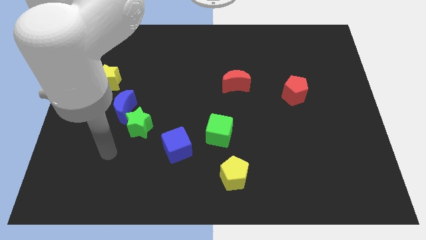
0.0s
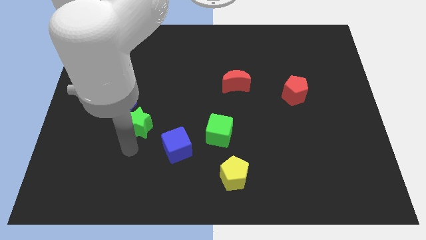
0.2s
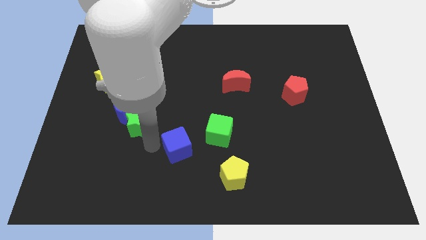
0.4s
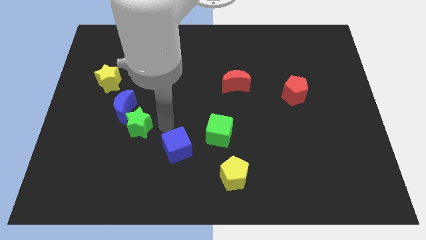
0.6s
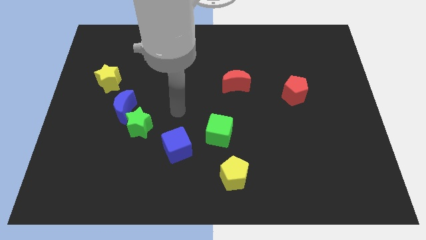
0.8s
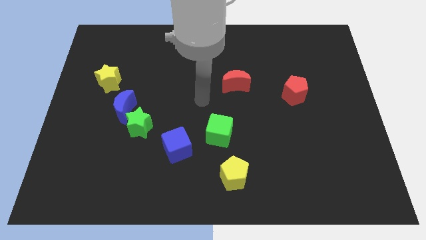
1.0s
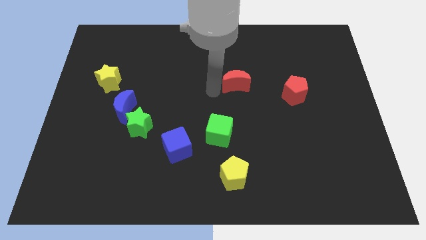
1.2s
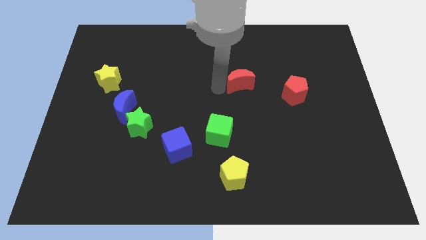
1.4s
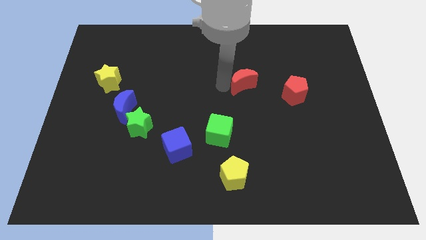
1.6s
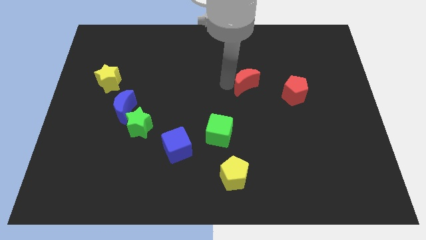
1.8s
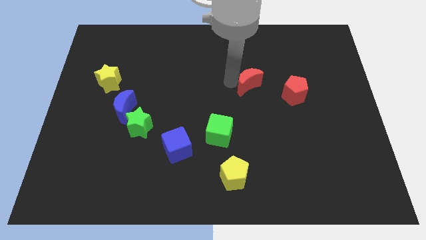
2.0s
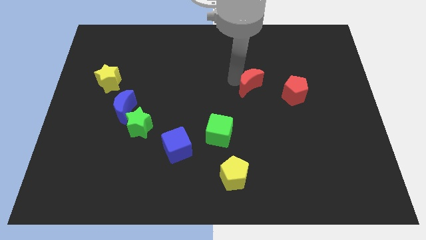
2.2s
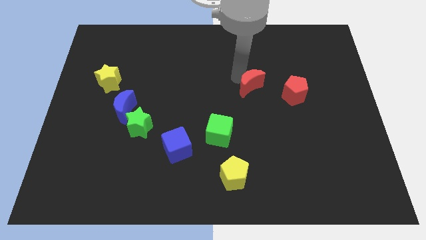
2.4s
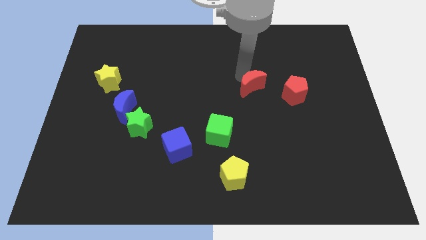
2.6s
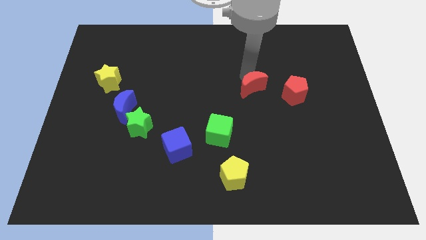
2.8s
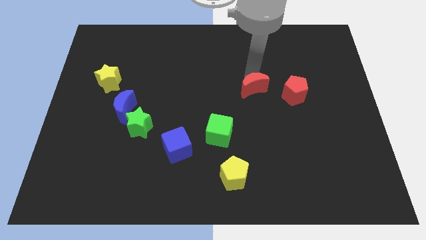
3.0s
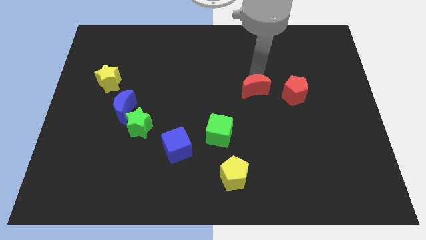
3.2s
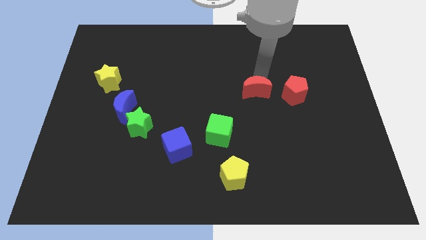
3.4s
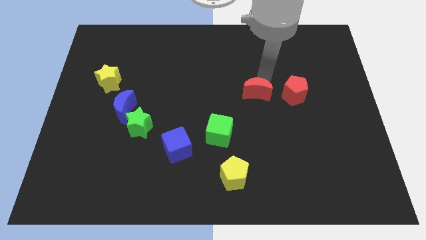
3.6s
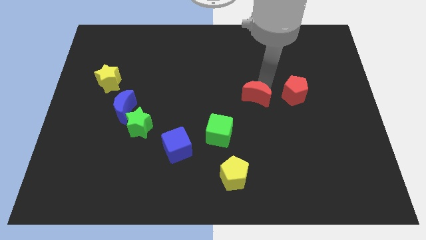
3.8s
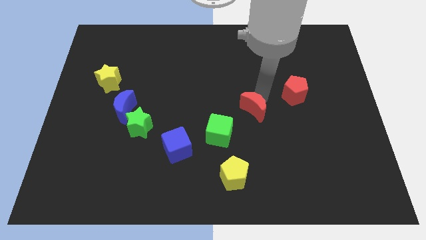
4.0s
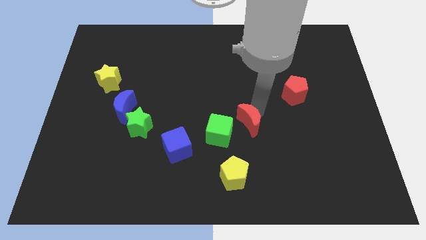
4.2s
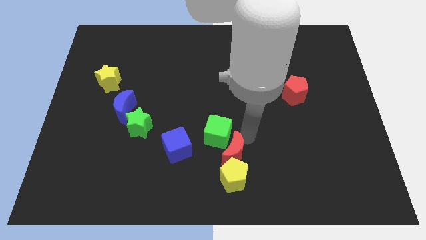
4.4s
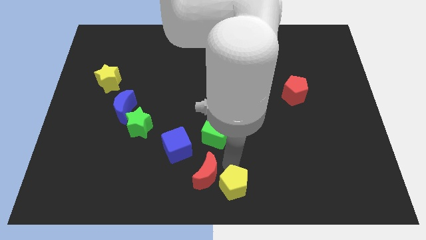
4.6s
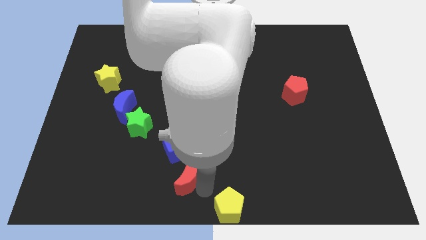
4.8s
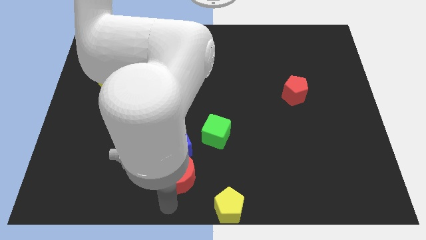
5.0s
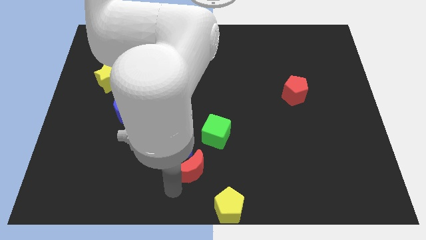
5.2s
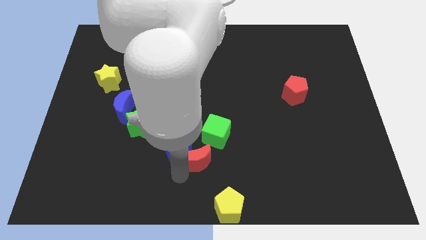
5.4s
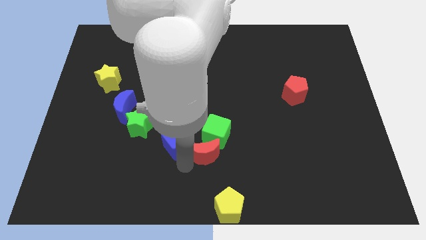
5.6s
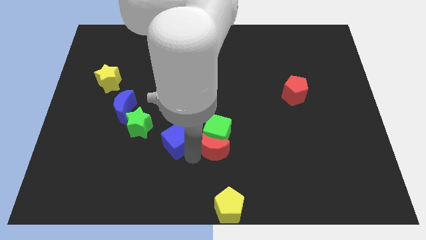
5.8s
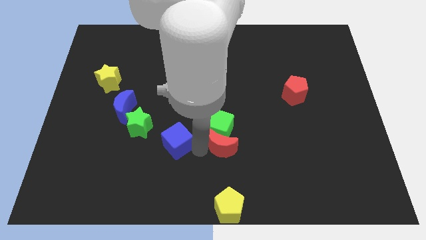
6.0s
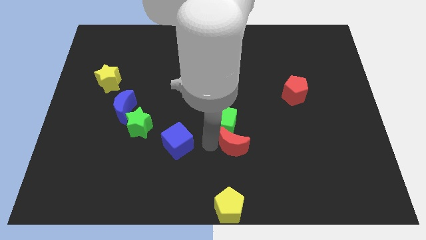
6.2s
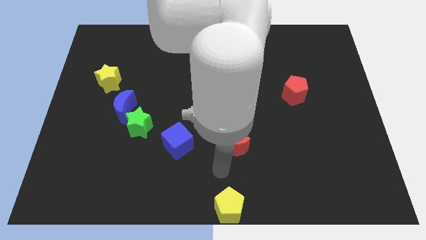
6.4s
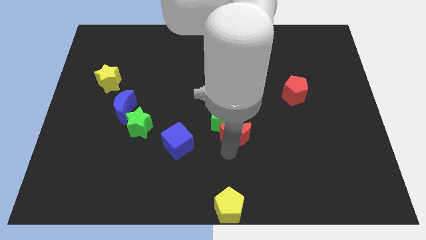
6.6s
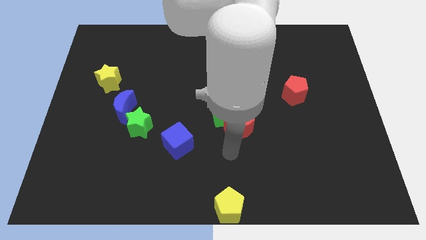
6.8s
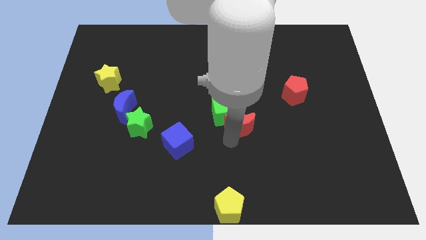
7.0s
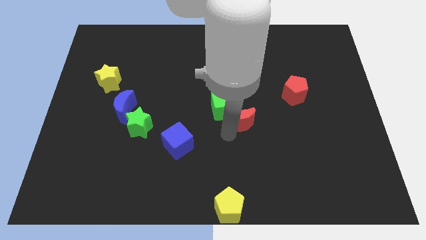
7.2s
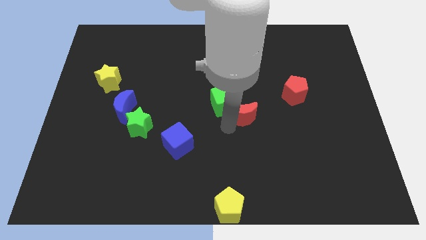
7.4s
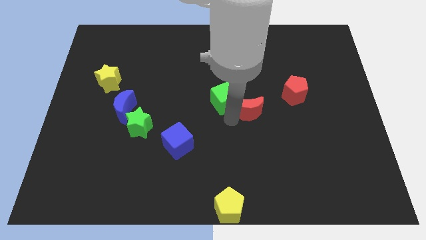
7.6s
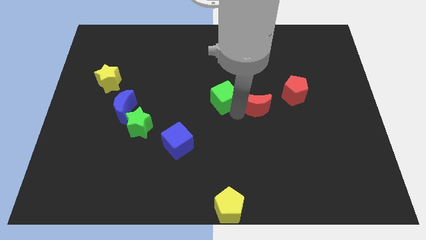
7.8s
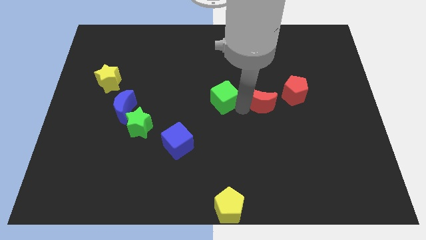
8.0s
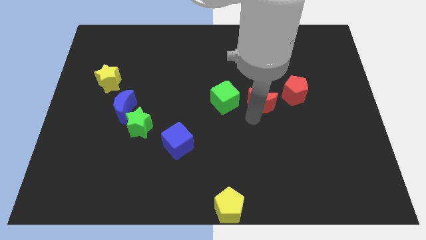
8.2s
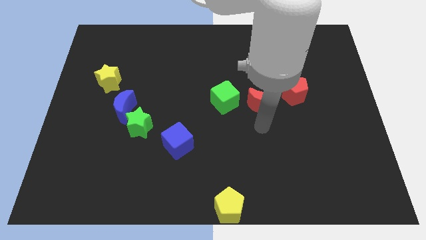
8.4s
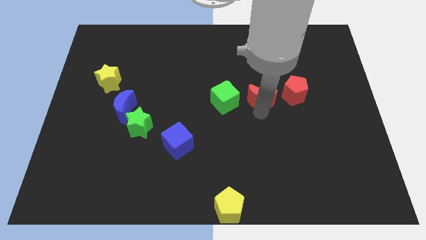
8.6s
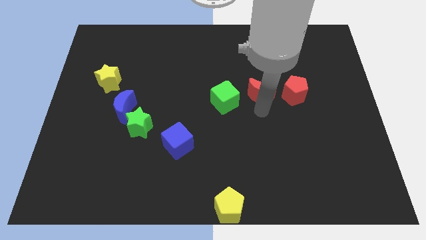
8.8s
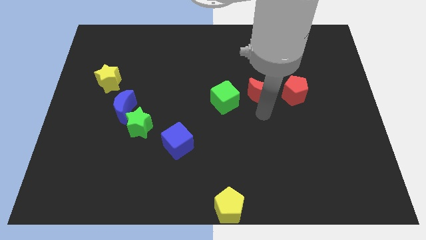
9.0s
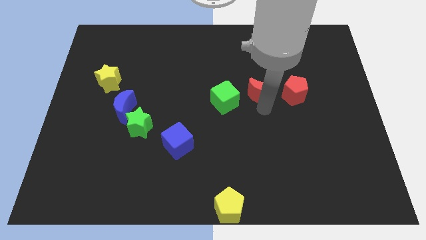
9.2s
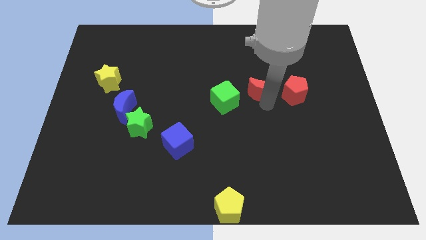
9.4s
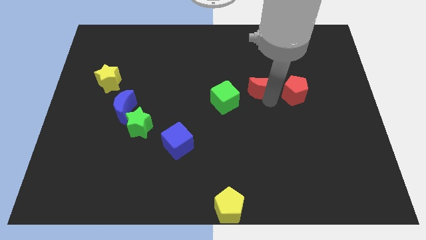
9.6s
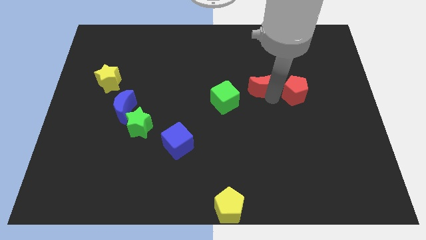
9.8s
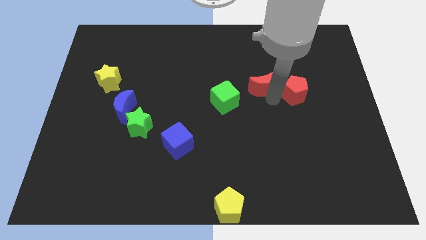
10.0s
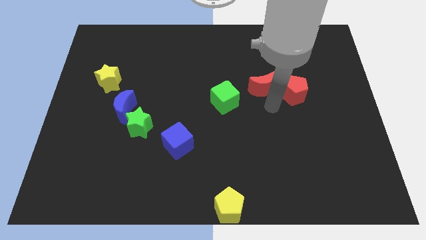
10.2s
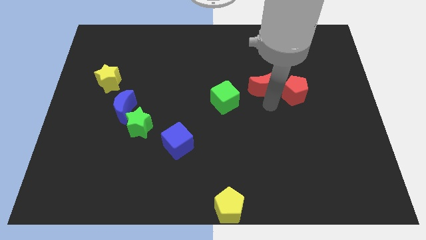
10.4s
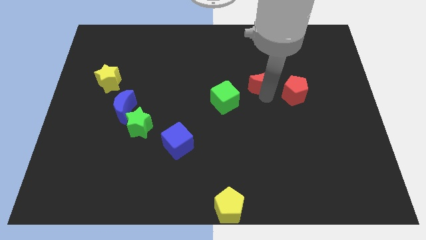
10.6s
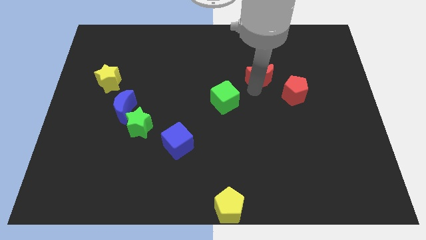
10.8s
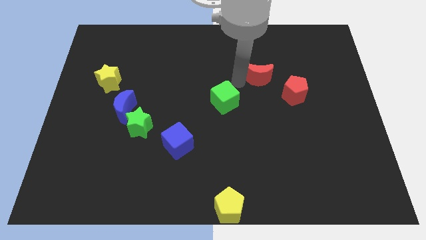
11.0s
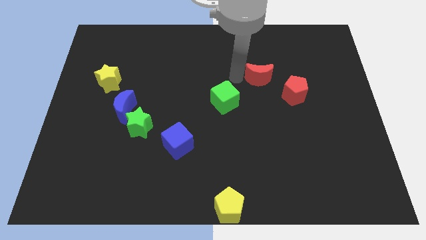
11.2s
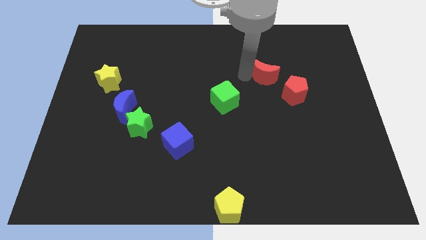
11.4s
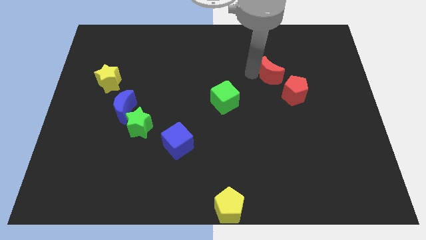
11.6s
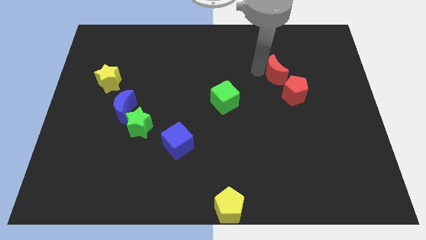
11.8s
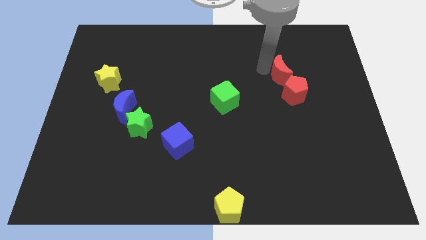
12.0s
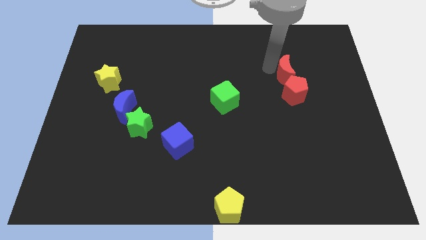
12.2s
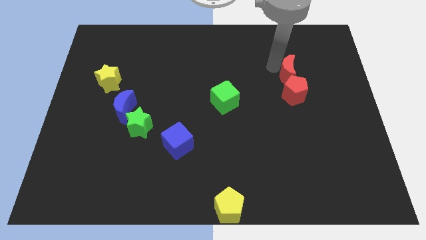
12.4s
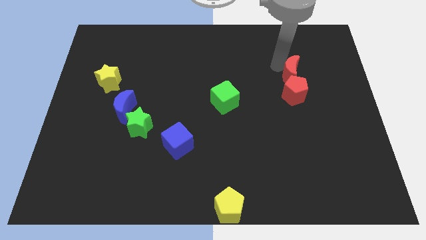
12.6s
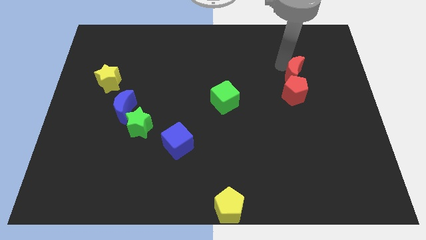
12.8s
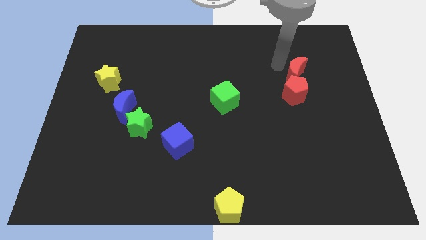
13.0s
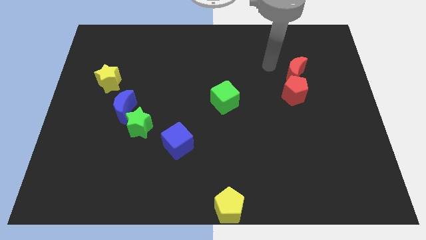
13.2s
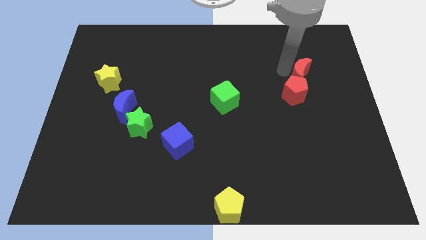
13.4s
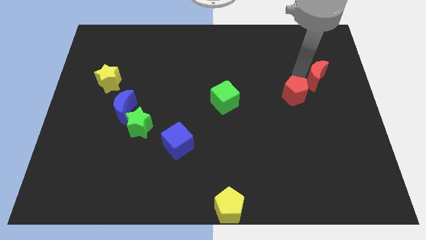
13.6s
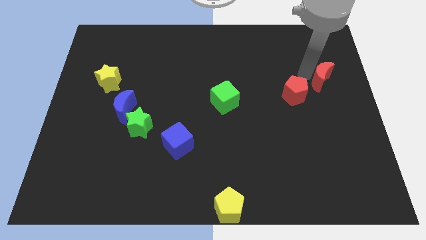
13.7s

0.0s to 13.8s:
push the red moon to the right side of the board
